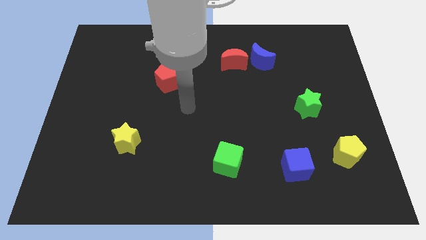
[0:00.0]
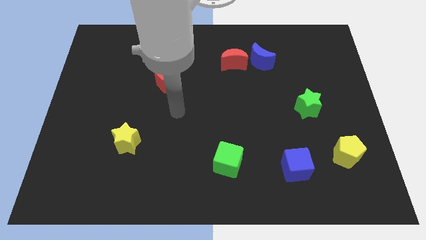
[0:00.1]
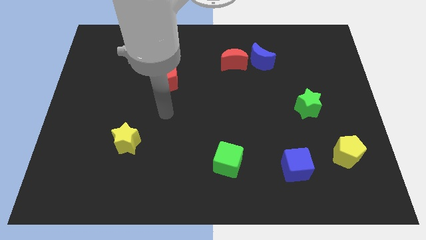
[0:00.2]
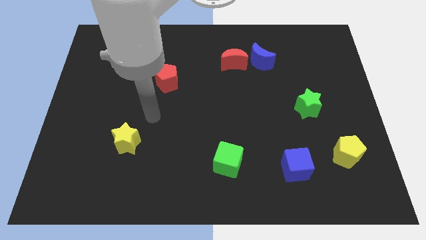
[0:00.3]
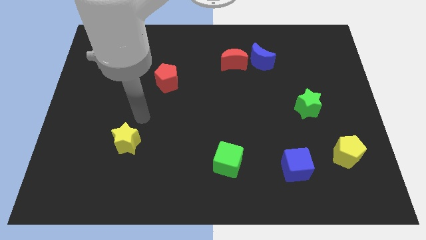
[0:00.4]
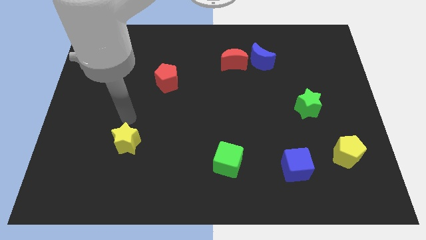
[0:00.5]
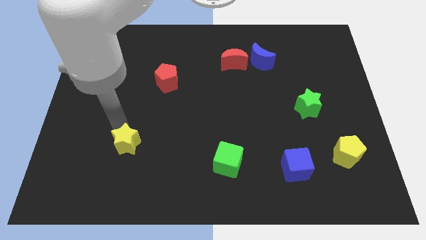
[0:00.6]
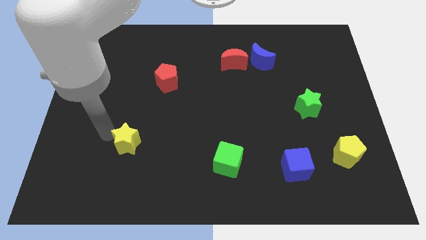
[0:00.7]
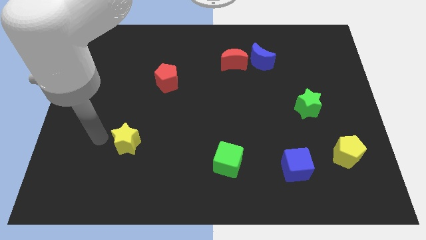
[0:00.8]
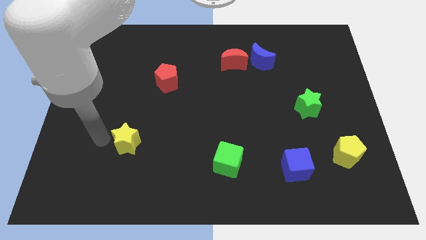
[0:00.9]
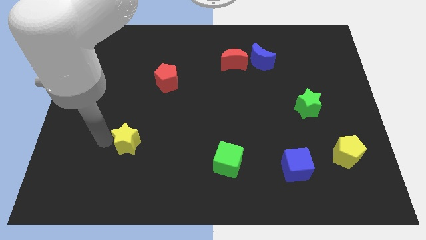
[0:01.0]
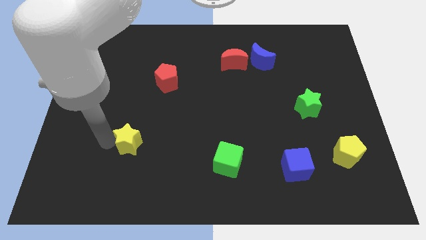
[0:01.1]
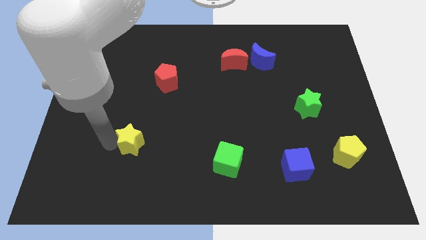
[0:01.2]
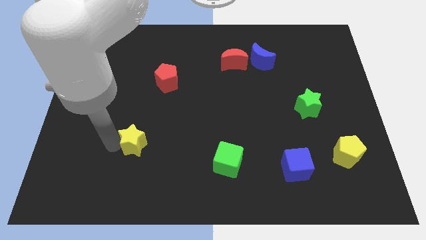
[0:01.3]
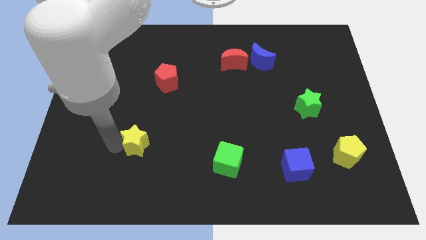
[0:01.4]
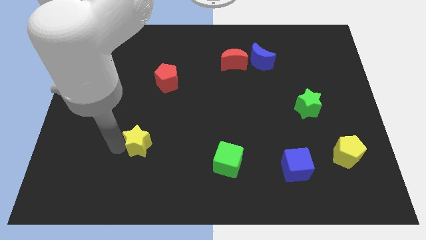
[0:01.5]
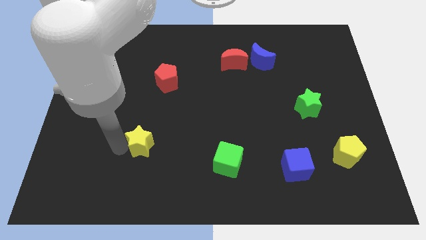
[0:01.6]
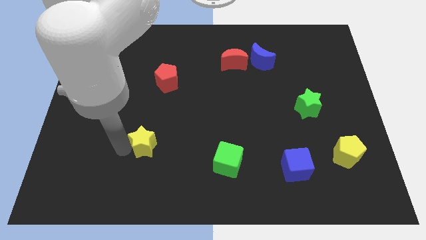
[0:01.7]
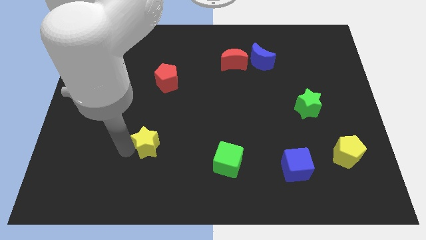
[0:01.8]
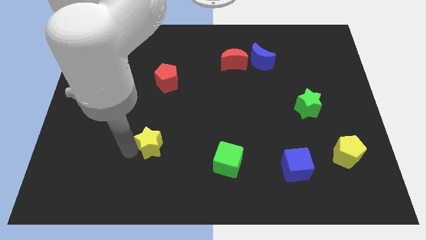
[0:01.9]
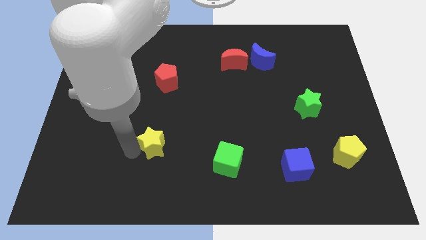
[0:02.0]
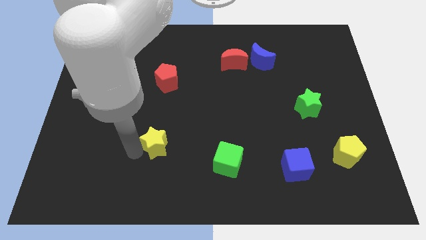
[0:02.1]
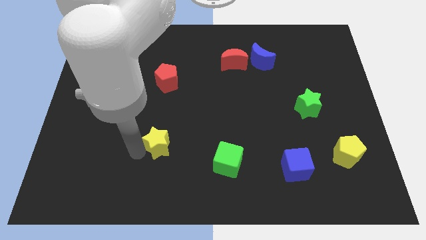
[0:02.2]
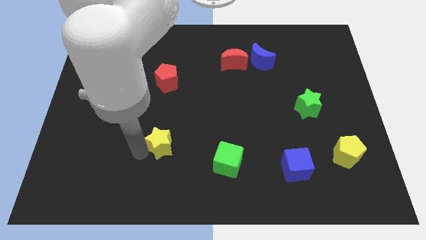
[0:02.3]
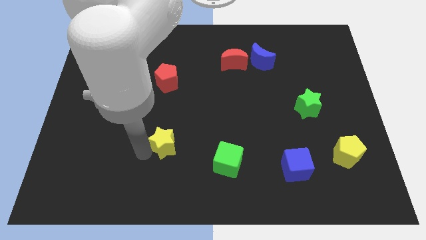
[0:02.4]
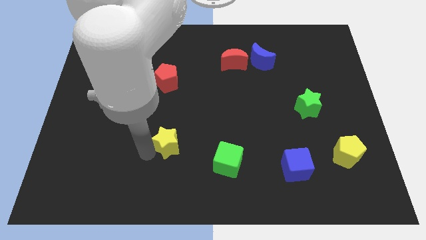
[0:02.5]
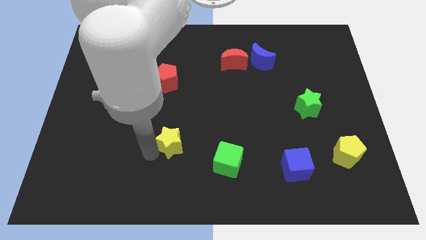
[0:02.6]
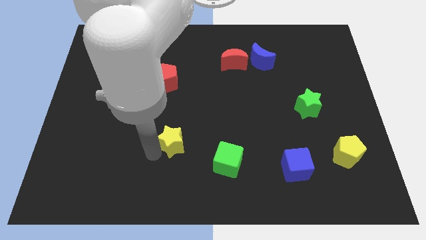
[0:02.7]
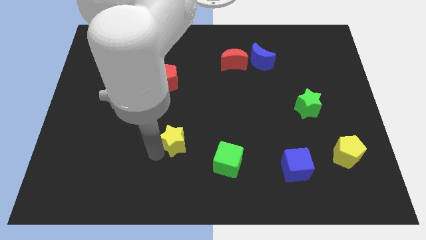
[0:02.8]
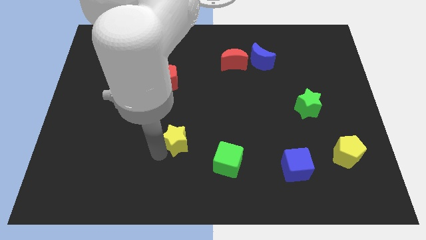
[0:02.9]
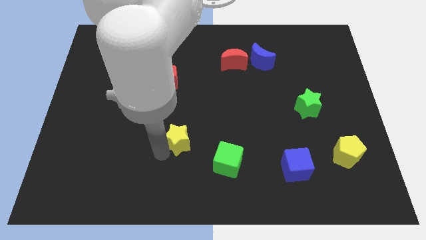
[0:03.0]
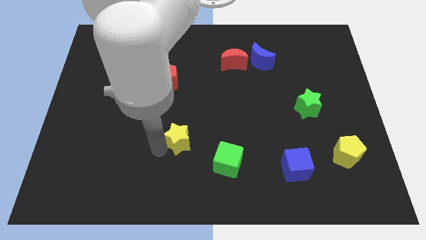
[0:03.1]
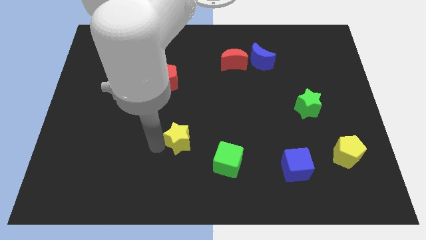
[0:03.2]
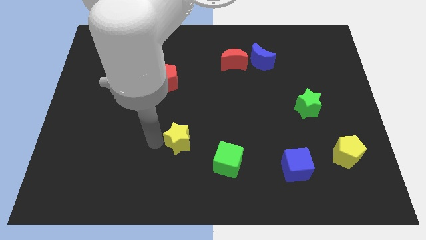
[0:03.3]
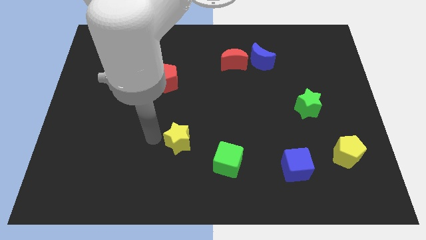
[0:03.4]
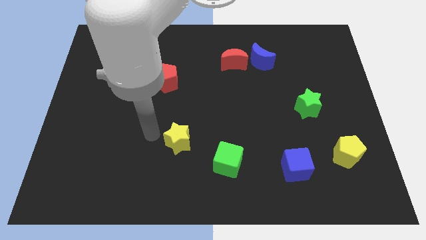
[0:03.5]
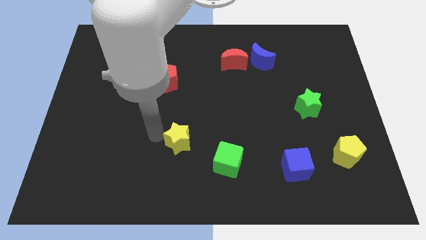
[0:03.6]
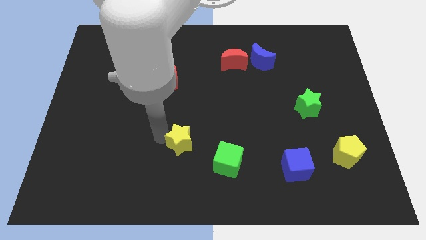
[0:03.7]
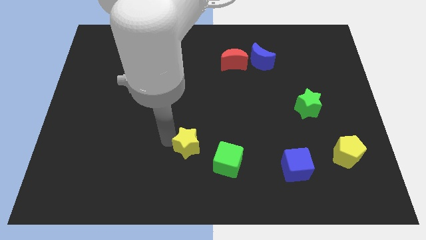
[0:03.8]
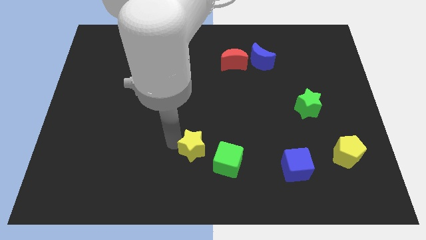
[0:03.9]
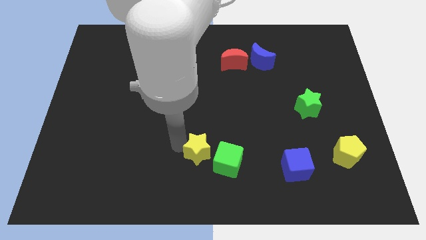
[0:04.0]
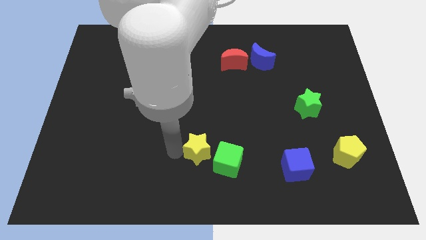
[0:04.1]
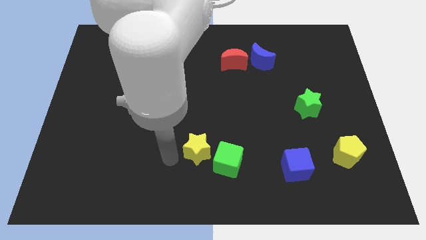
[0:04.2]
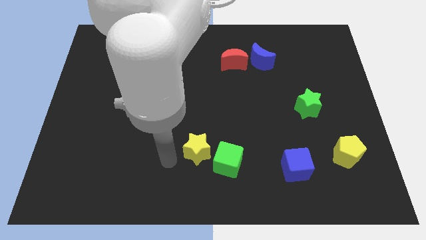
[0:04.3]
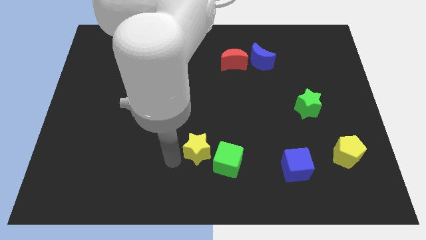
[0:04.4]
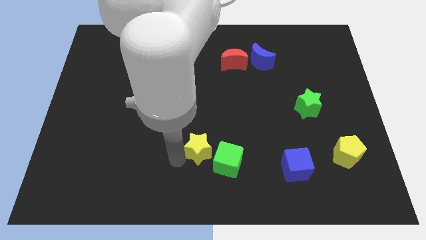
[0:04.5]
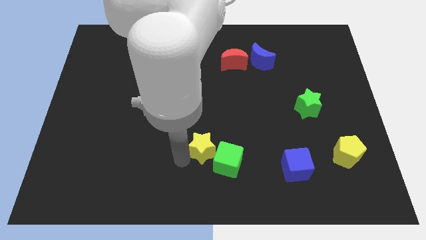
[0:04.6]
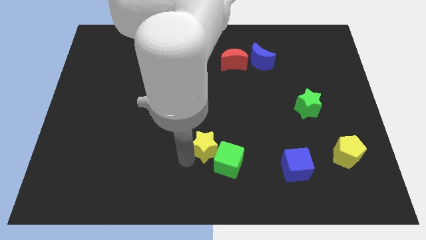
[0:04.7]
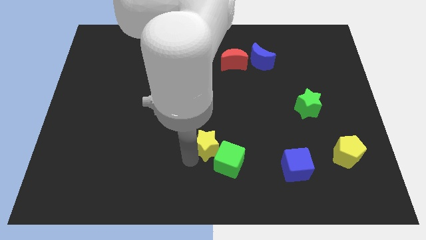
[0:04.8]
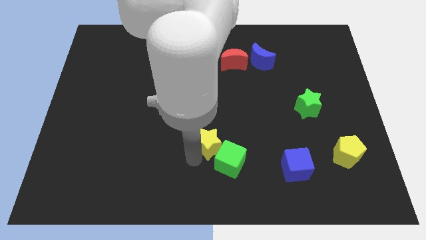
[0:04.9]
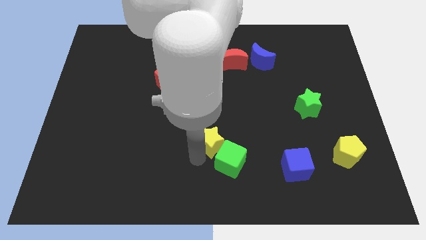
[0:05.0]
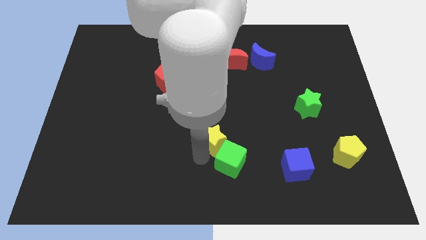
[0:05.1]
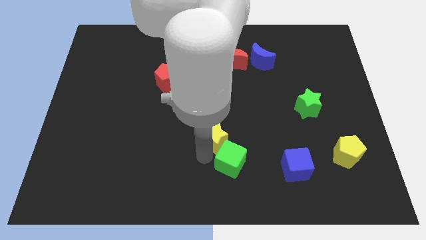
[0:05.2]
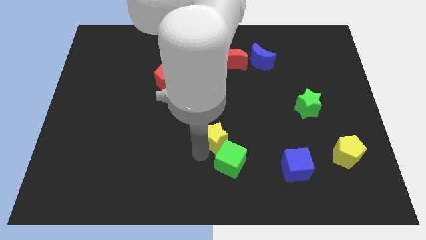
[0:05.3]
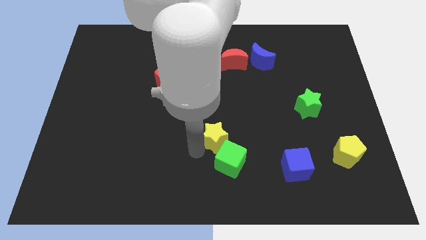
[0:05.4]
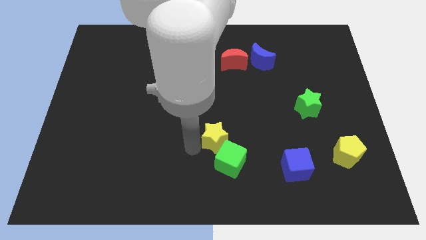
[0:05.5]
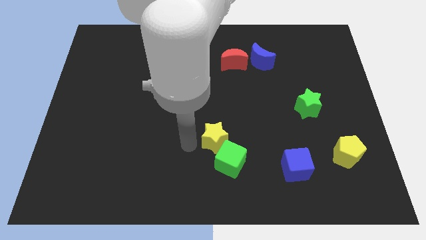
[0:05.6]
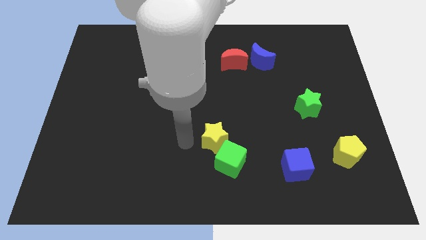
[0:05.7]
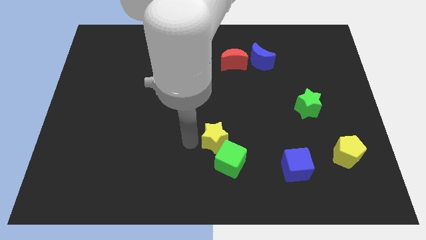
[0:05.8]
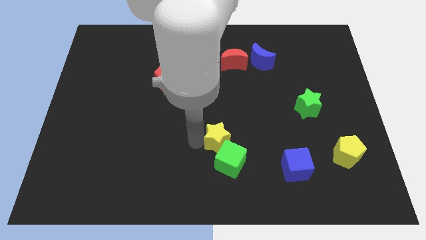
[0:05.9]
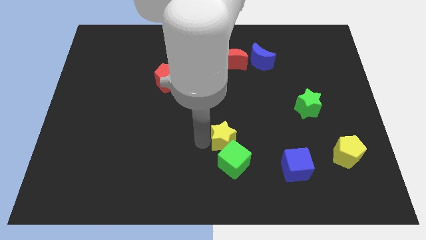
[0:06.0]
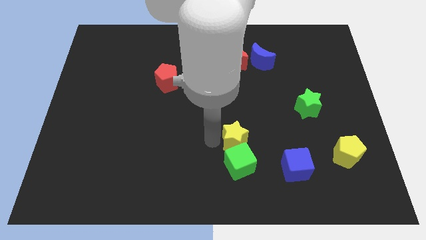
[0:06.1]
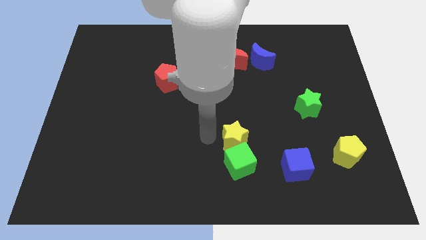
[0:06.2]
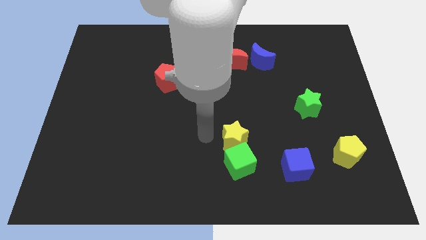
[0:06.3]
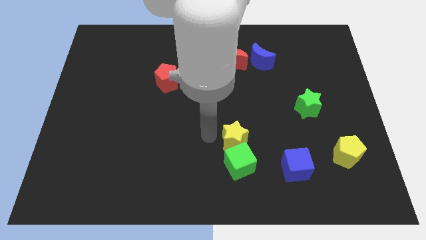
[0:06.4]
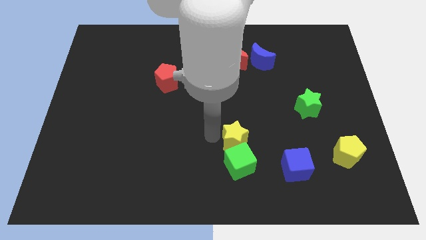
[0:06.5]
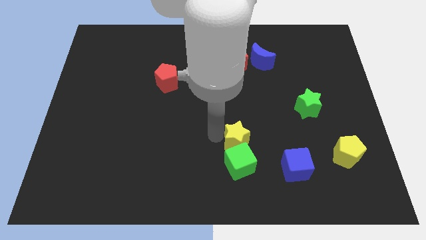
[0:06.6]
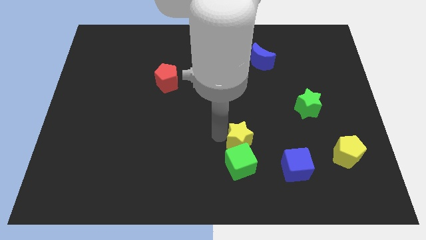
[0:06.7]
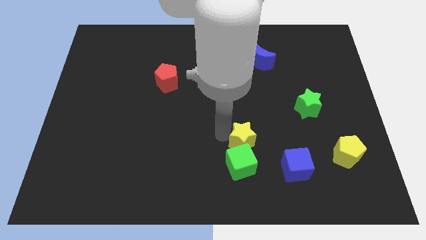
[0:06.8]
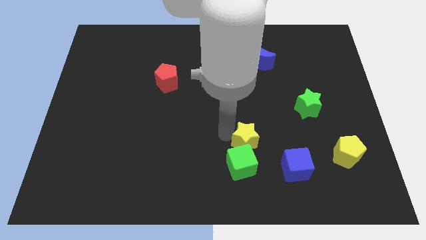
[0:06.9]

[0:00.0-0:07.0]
put the yellow star to the top left of the blue cube
